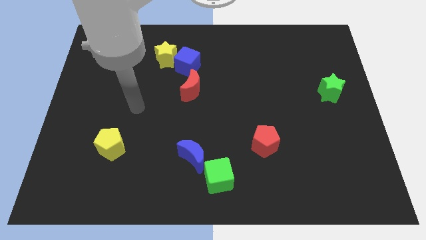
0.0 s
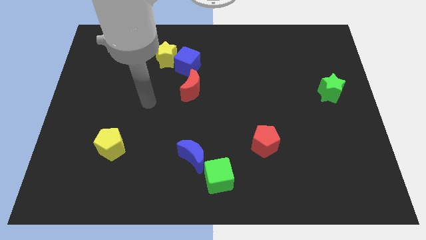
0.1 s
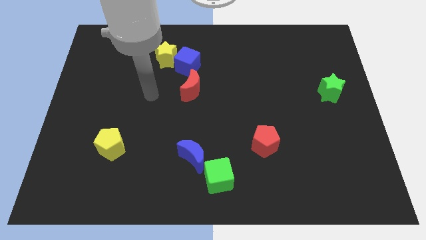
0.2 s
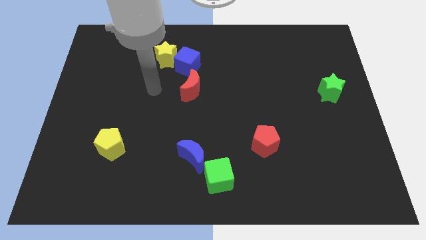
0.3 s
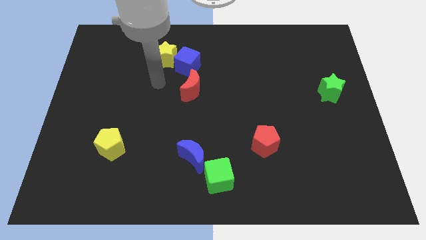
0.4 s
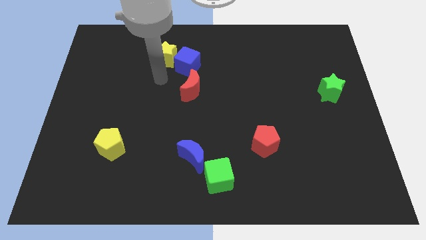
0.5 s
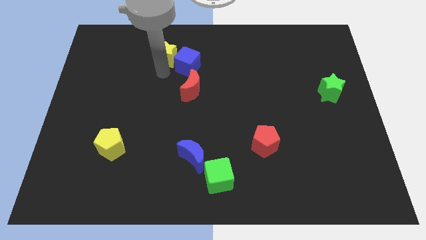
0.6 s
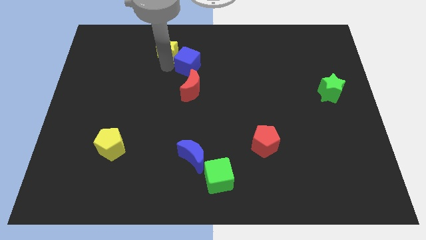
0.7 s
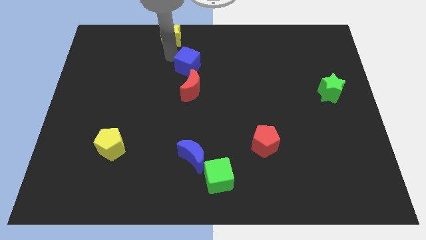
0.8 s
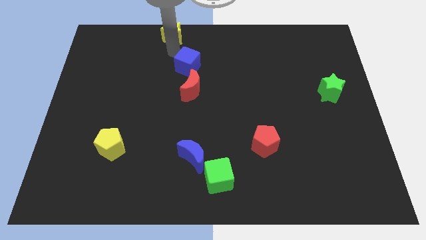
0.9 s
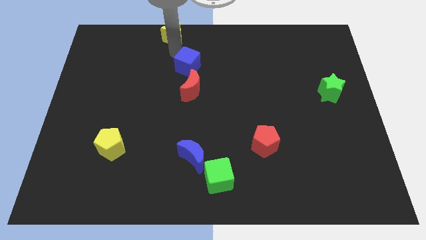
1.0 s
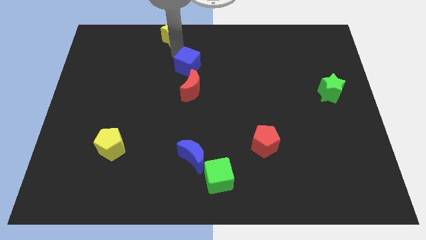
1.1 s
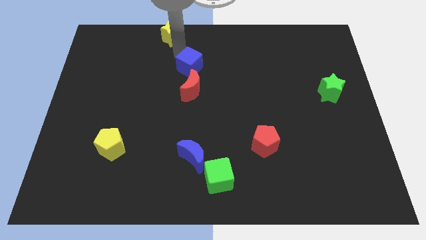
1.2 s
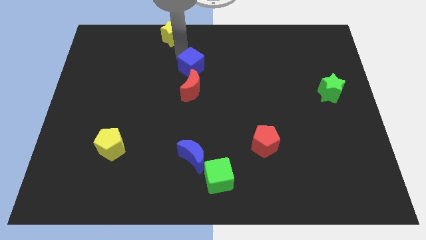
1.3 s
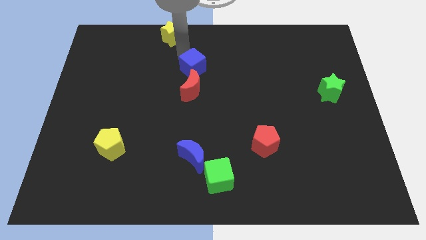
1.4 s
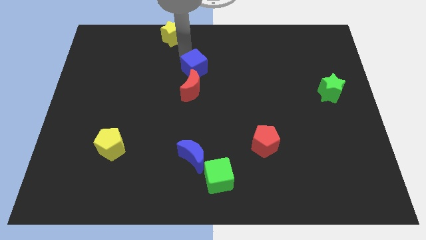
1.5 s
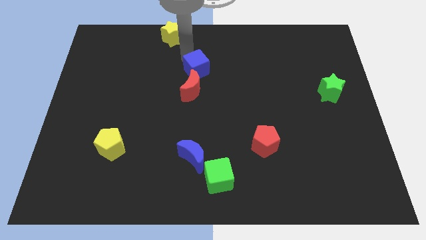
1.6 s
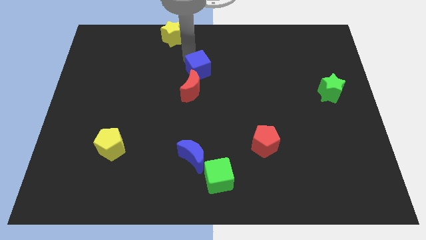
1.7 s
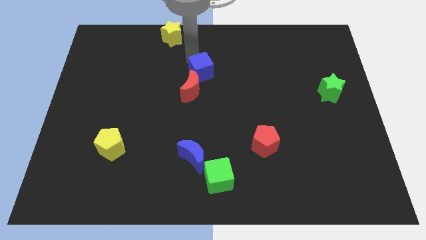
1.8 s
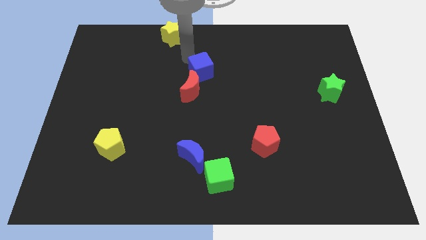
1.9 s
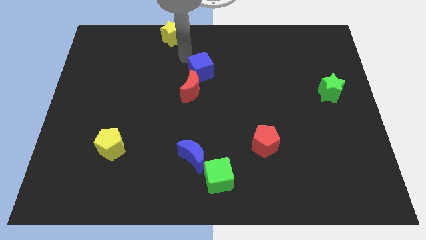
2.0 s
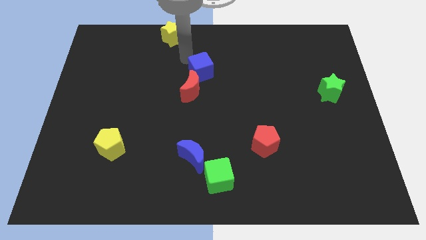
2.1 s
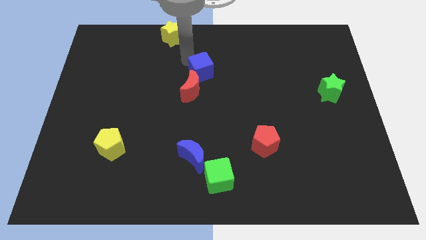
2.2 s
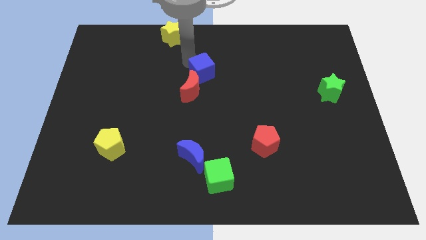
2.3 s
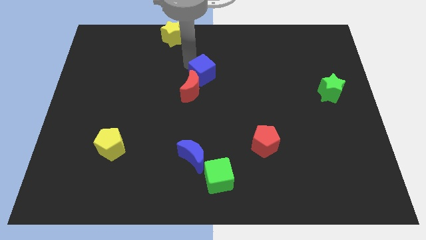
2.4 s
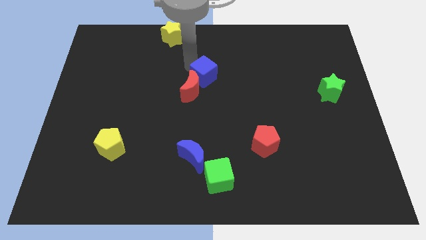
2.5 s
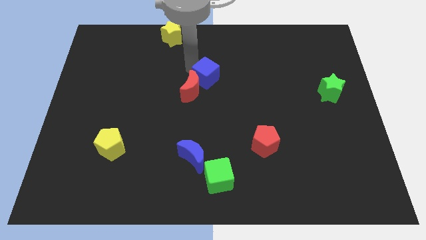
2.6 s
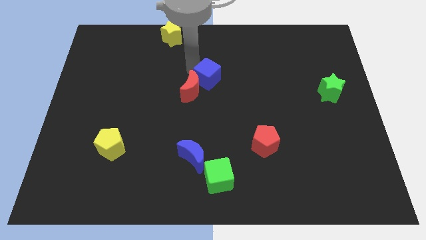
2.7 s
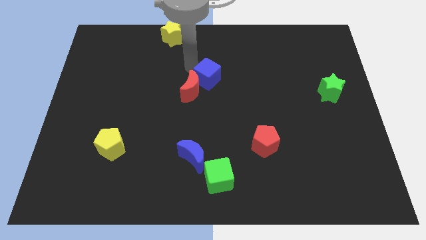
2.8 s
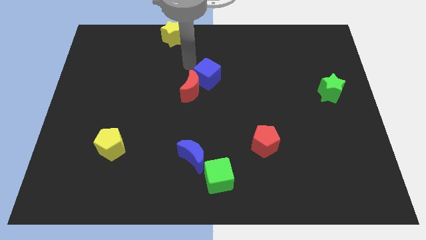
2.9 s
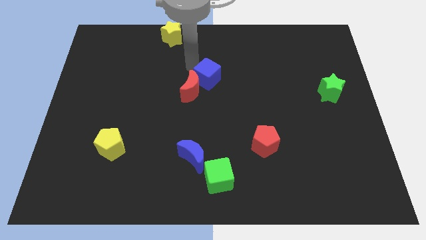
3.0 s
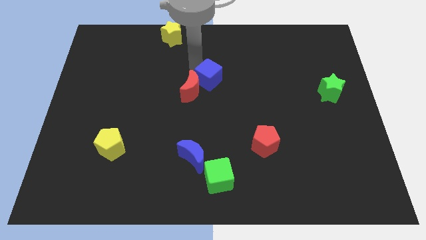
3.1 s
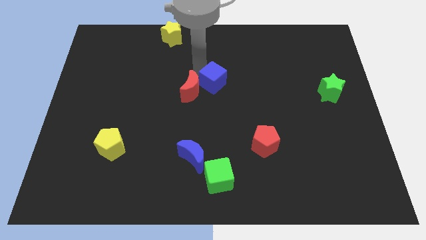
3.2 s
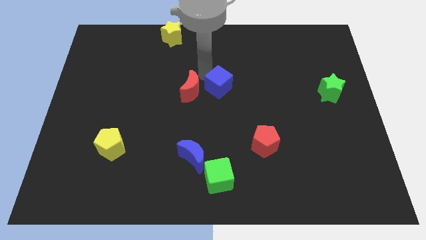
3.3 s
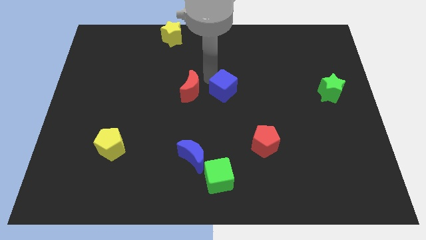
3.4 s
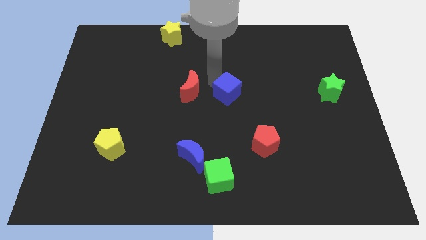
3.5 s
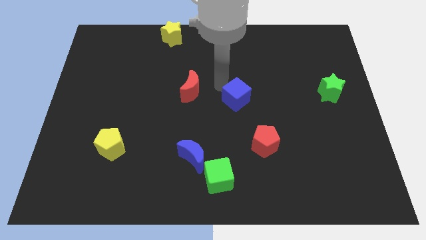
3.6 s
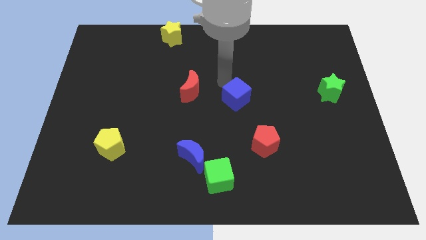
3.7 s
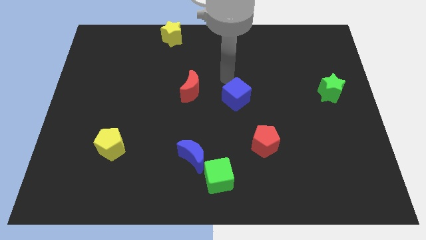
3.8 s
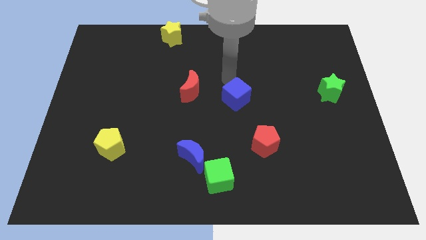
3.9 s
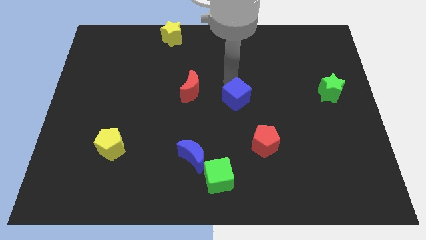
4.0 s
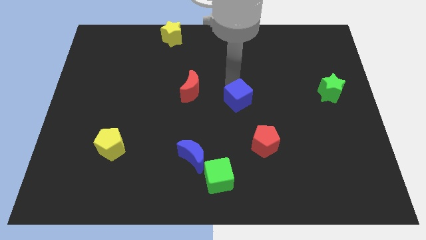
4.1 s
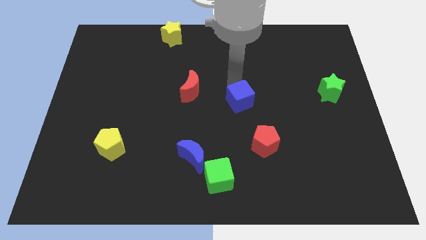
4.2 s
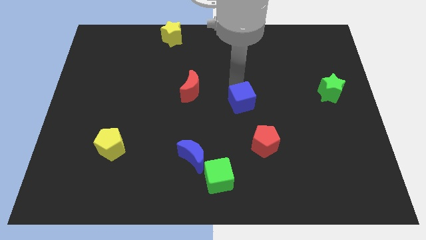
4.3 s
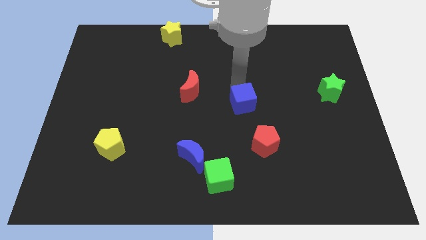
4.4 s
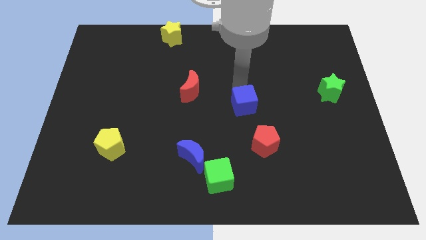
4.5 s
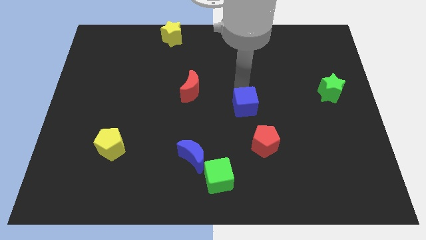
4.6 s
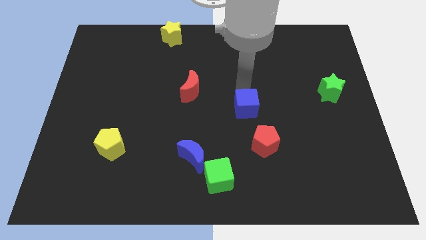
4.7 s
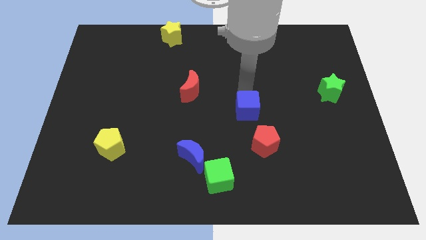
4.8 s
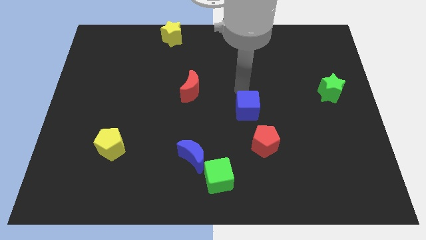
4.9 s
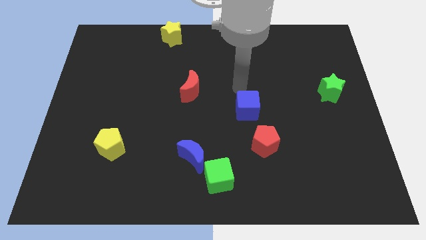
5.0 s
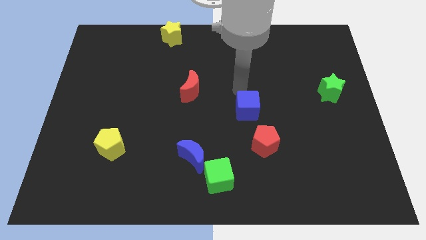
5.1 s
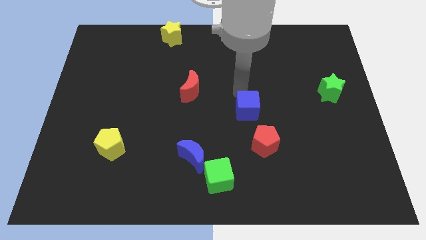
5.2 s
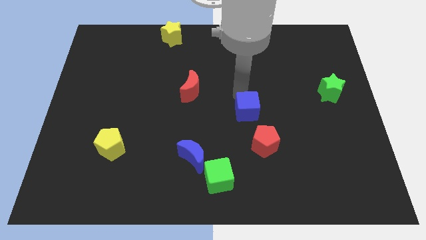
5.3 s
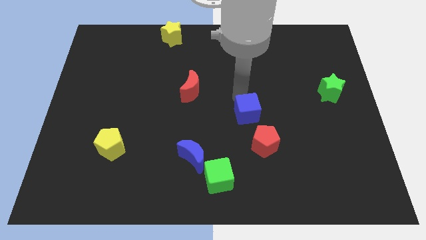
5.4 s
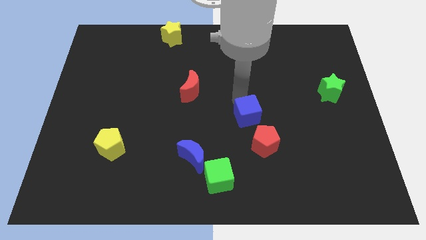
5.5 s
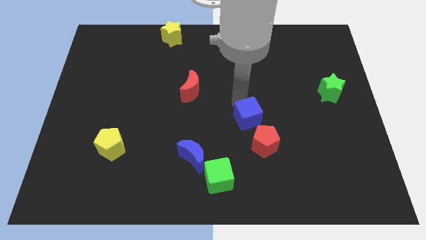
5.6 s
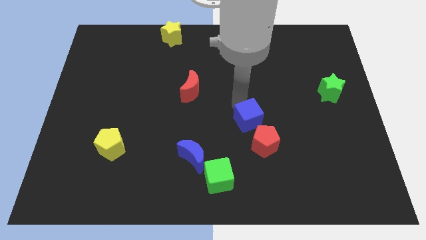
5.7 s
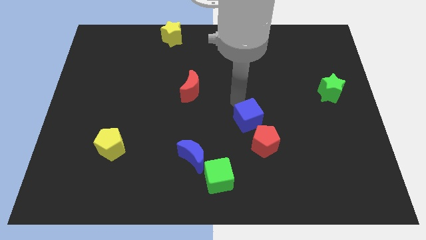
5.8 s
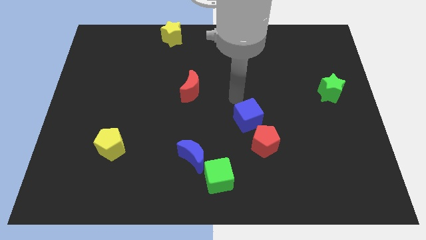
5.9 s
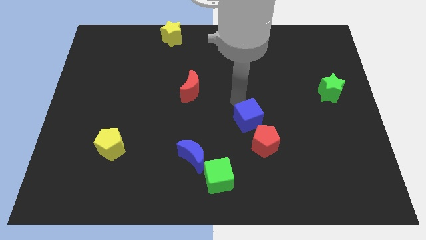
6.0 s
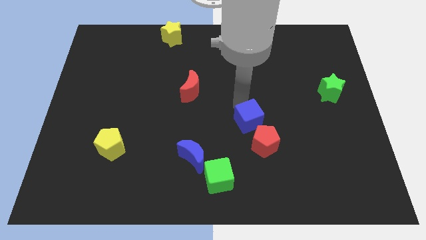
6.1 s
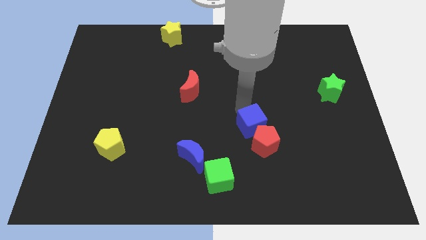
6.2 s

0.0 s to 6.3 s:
slide the blue cube towards the red pentagon

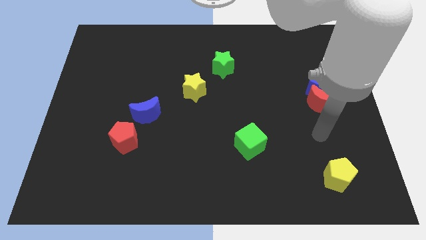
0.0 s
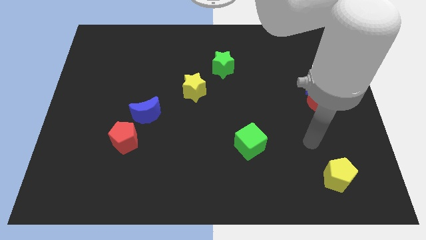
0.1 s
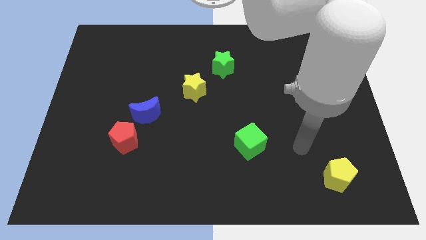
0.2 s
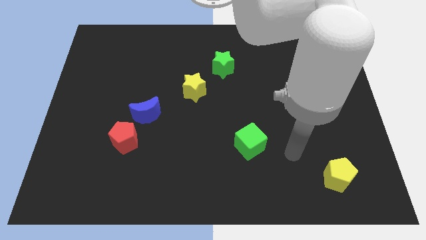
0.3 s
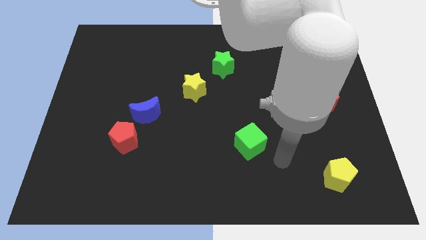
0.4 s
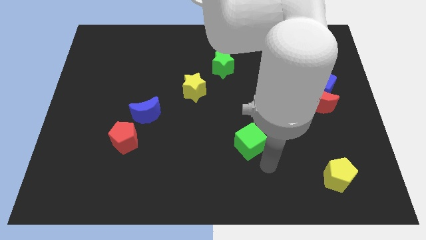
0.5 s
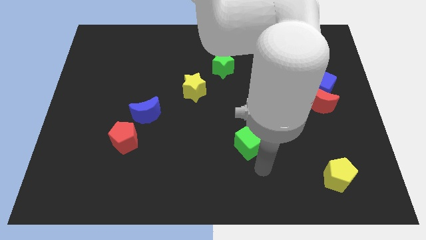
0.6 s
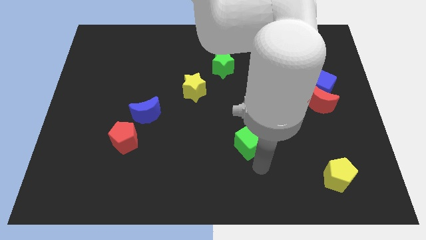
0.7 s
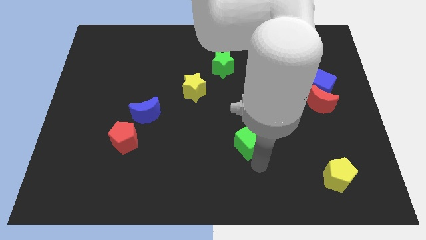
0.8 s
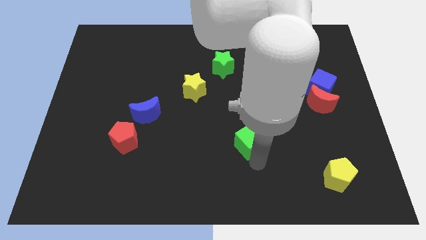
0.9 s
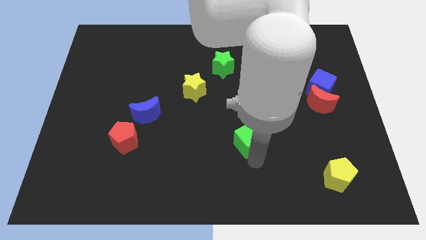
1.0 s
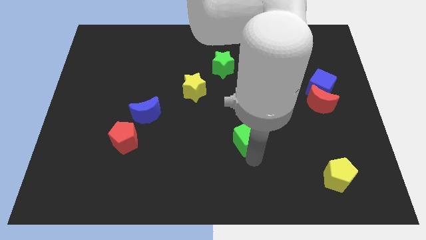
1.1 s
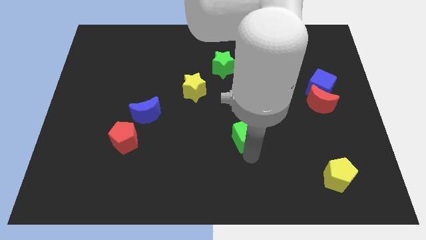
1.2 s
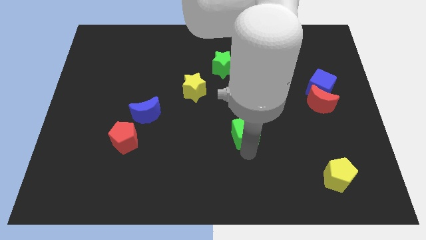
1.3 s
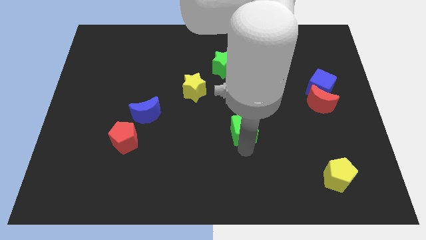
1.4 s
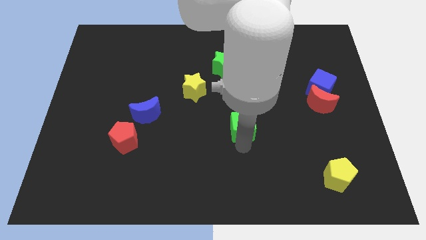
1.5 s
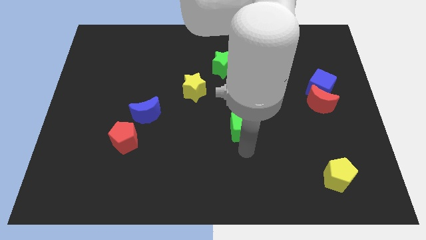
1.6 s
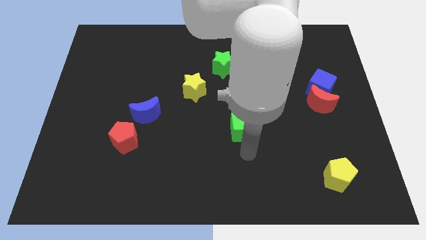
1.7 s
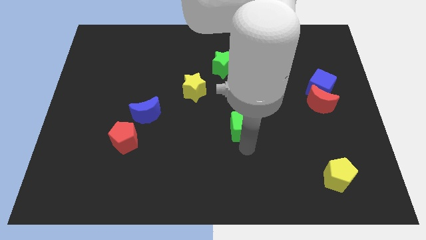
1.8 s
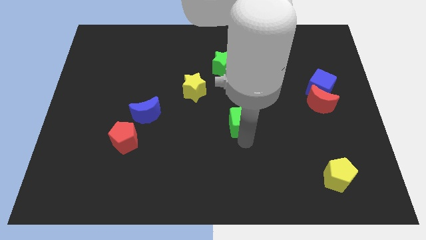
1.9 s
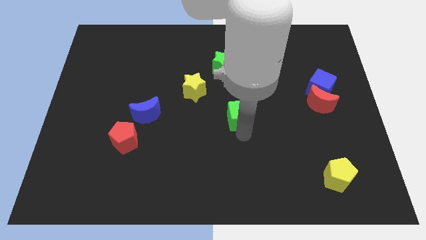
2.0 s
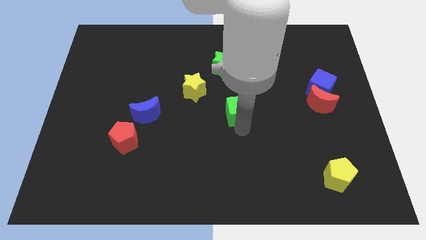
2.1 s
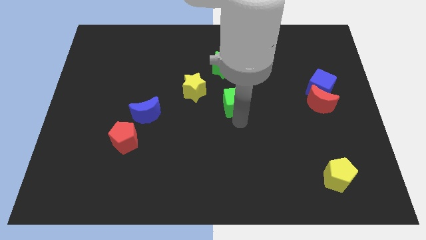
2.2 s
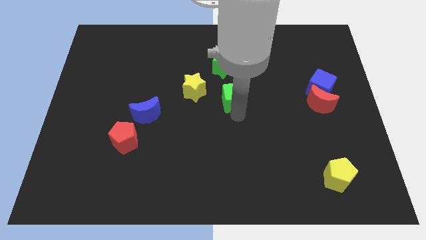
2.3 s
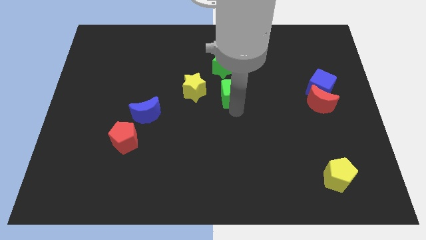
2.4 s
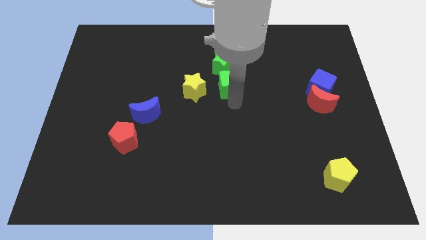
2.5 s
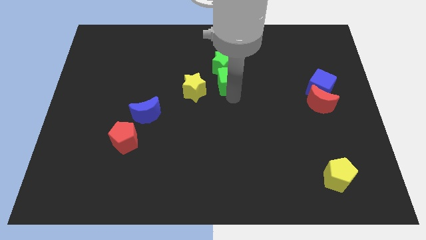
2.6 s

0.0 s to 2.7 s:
slide the green cube next to the green star
